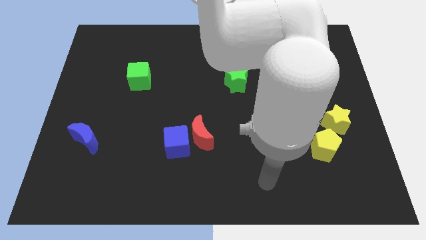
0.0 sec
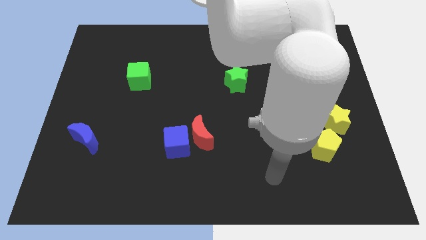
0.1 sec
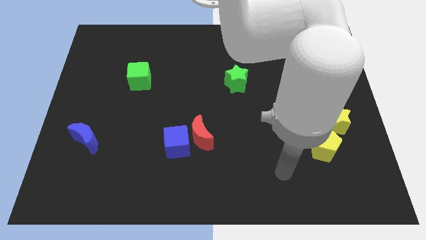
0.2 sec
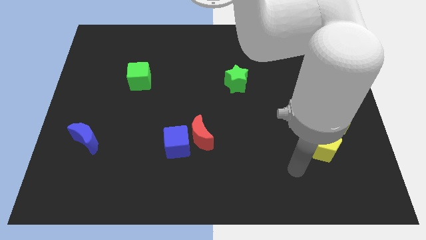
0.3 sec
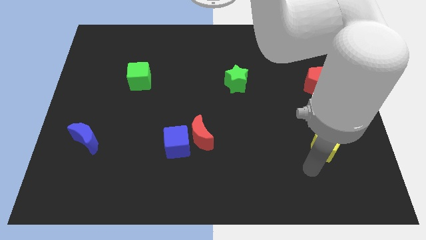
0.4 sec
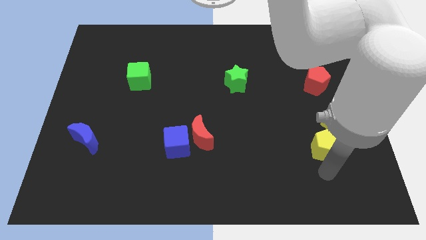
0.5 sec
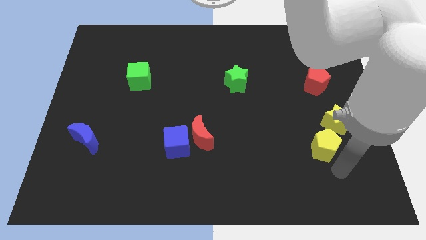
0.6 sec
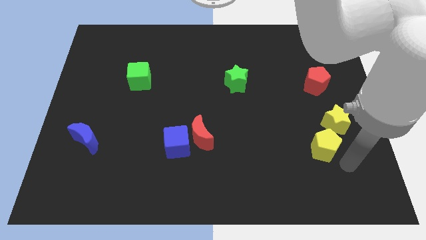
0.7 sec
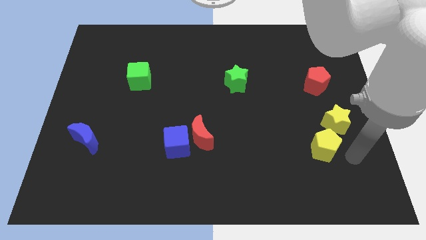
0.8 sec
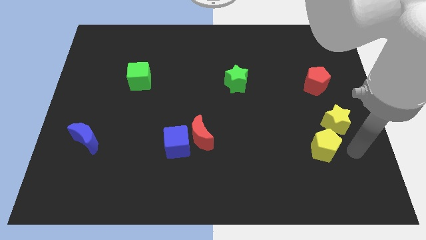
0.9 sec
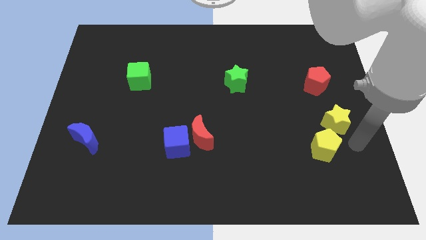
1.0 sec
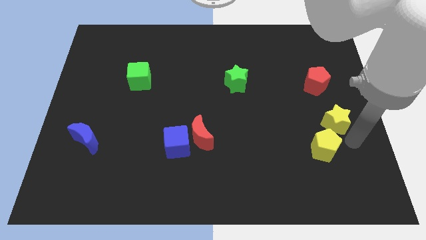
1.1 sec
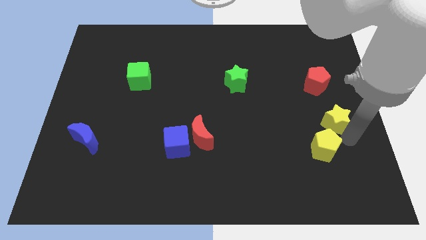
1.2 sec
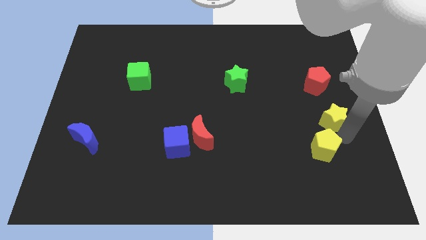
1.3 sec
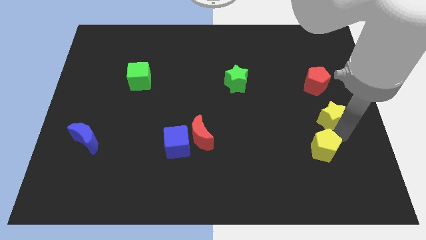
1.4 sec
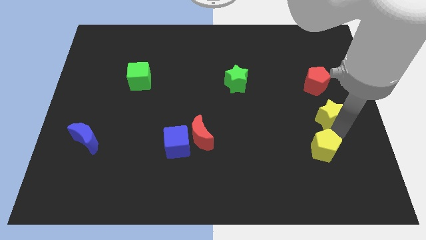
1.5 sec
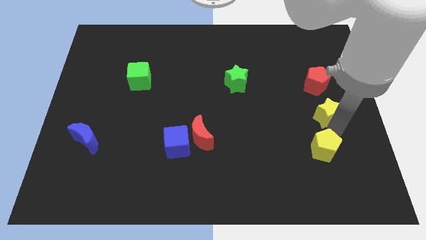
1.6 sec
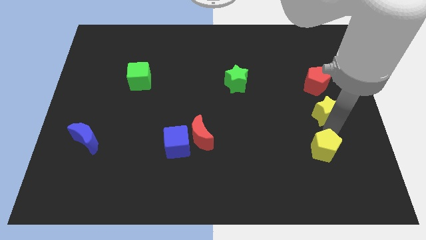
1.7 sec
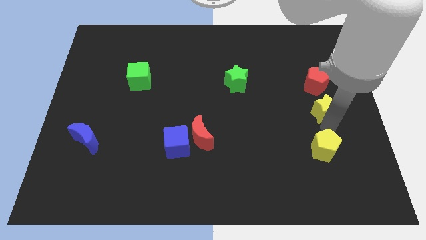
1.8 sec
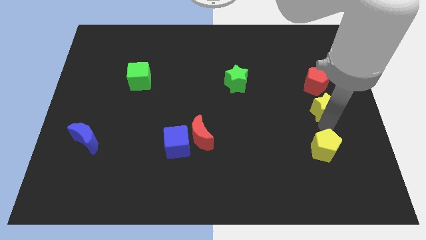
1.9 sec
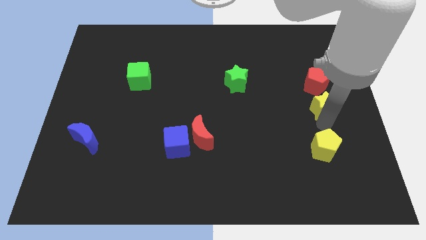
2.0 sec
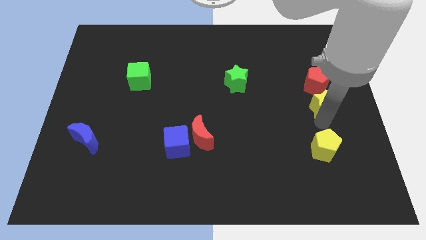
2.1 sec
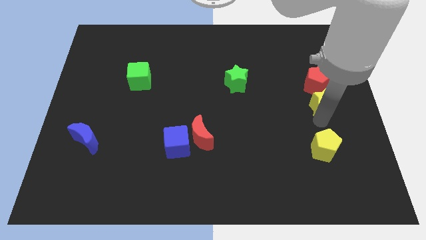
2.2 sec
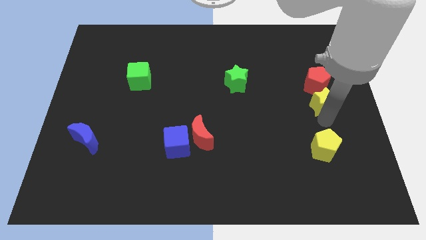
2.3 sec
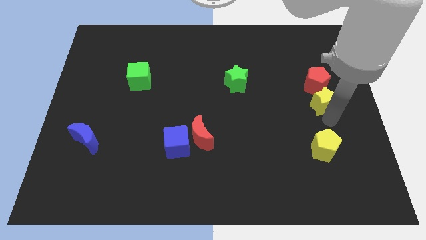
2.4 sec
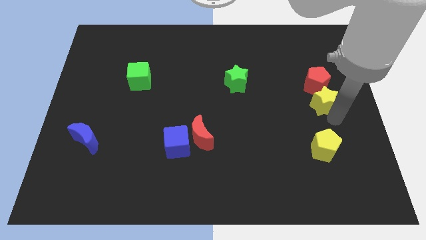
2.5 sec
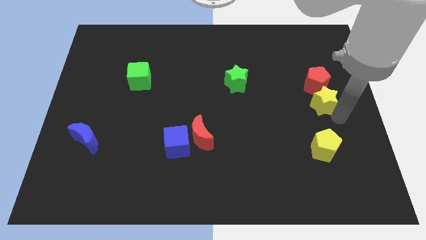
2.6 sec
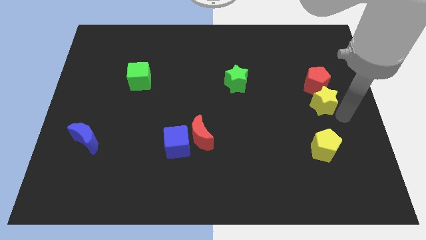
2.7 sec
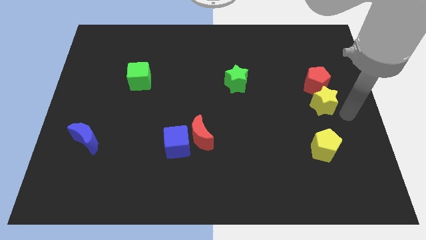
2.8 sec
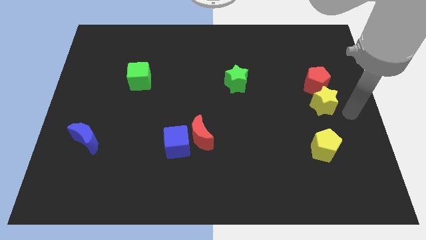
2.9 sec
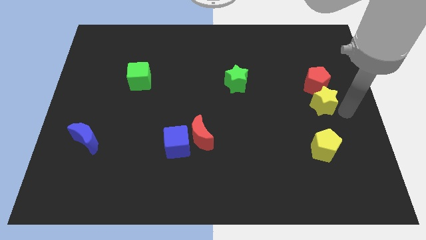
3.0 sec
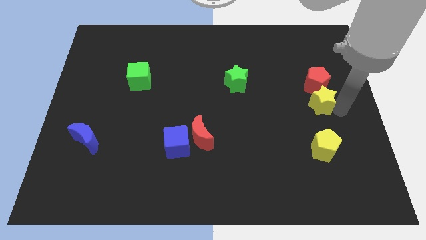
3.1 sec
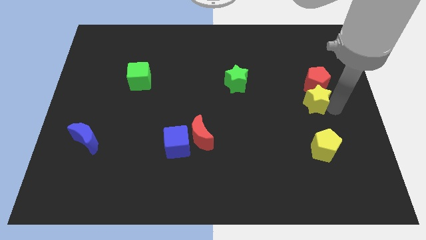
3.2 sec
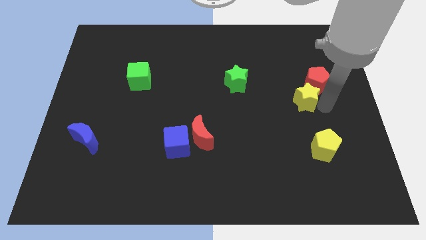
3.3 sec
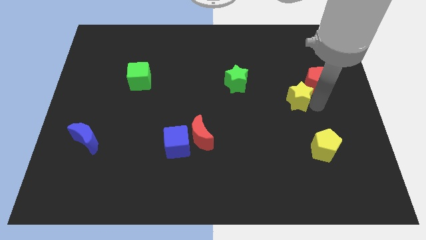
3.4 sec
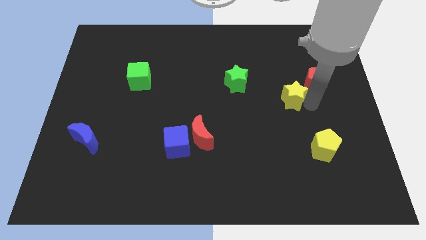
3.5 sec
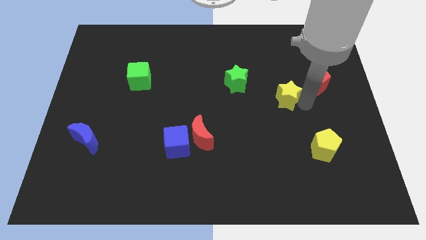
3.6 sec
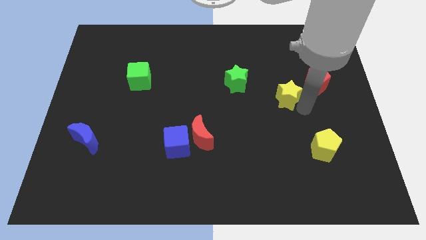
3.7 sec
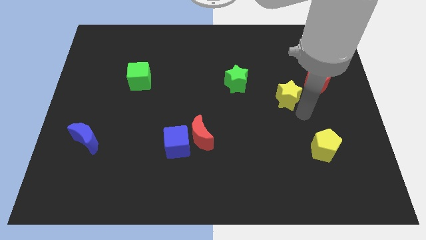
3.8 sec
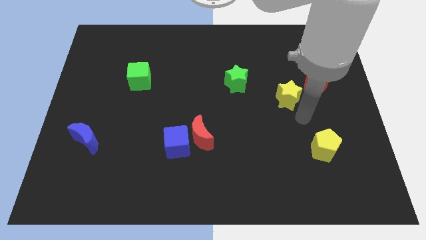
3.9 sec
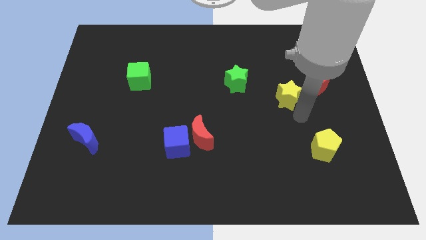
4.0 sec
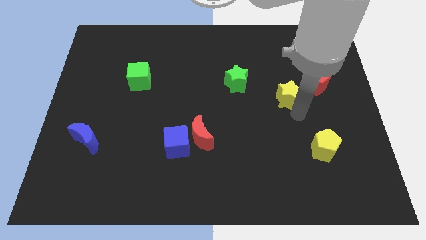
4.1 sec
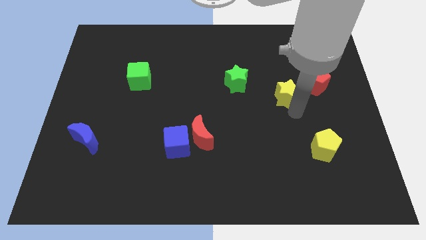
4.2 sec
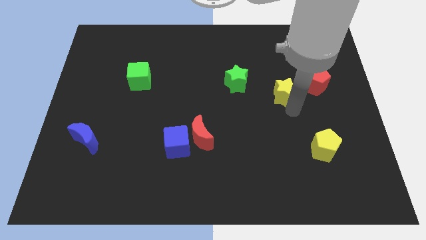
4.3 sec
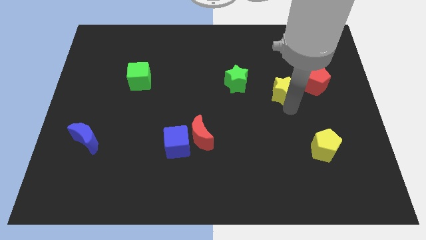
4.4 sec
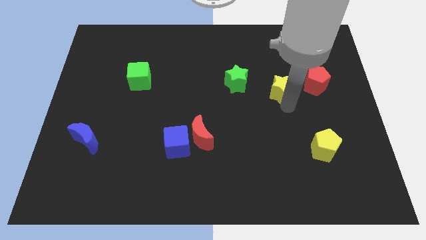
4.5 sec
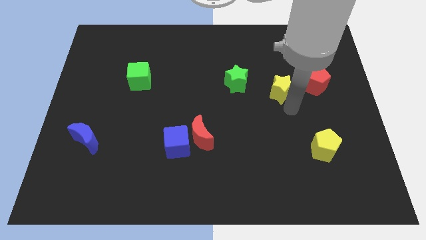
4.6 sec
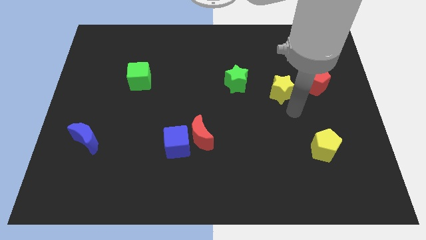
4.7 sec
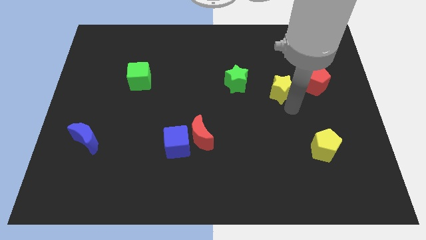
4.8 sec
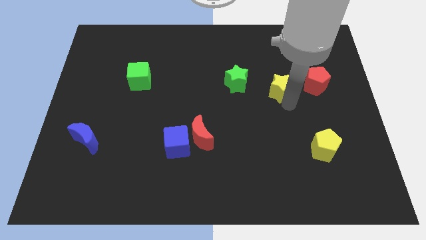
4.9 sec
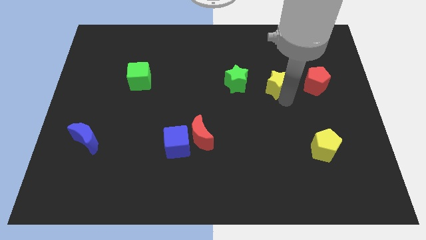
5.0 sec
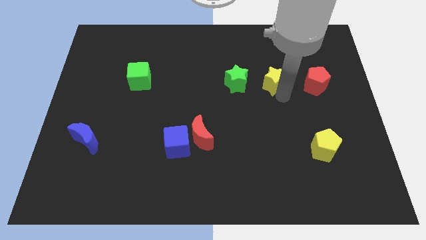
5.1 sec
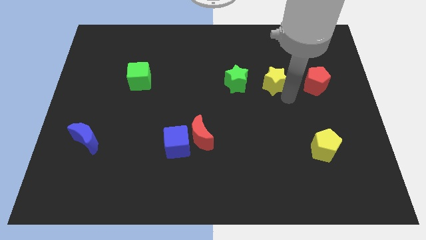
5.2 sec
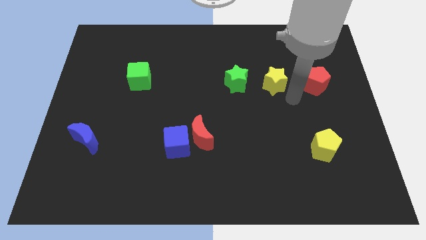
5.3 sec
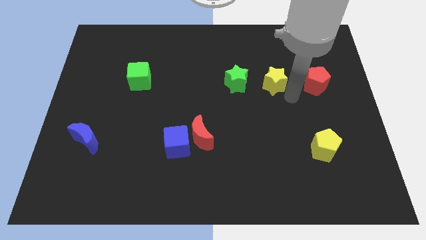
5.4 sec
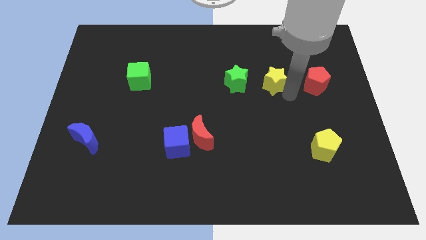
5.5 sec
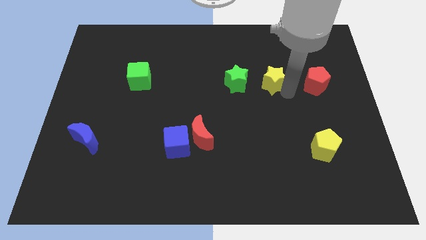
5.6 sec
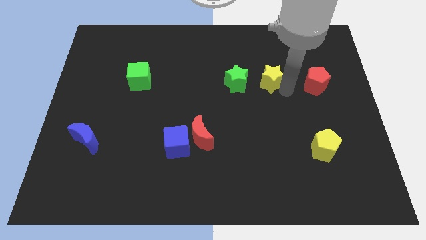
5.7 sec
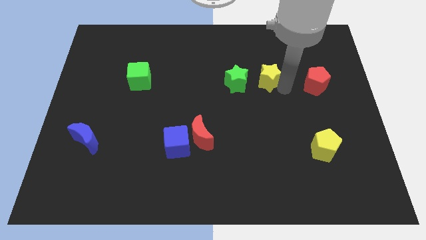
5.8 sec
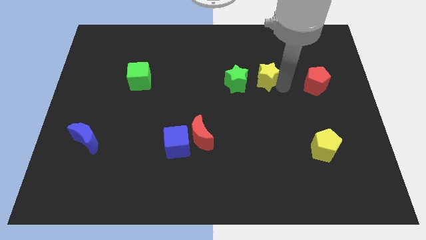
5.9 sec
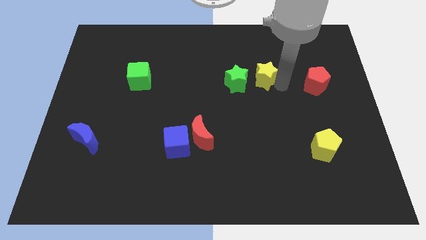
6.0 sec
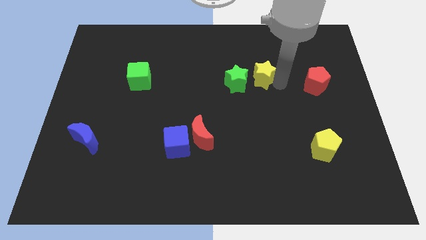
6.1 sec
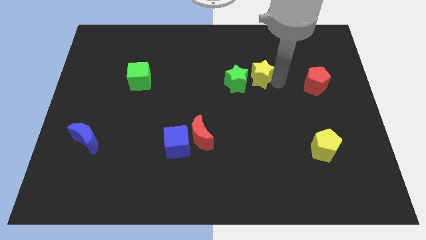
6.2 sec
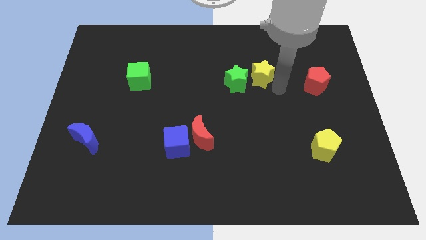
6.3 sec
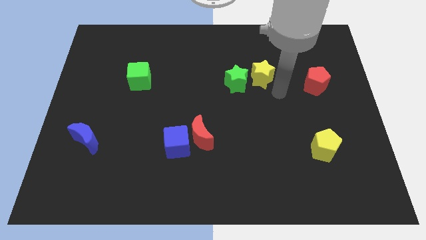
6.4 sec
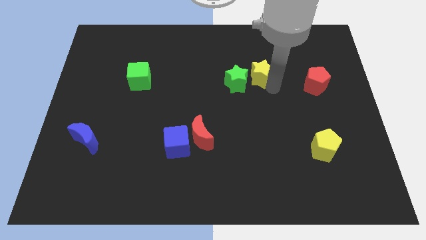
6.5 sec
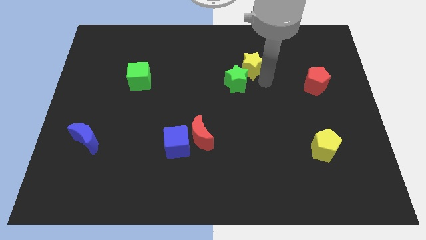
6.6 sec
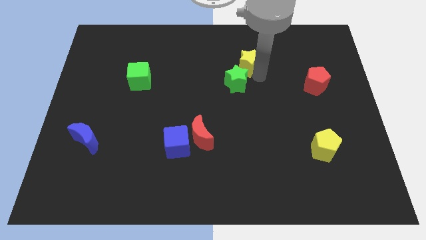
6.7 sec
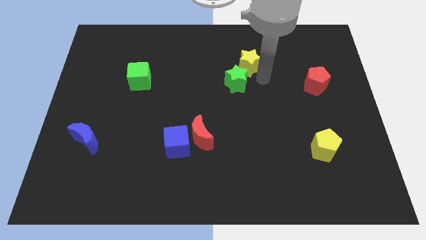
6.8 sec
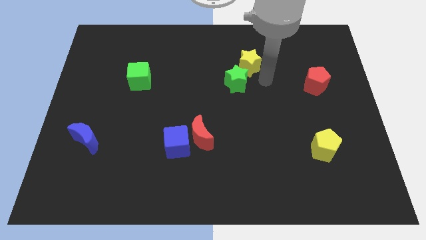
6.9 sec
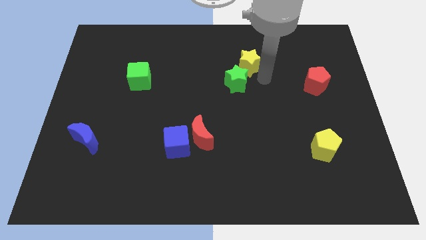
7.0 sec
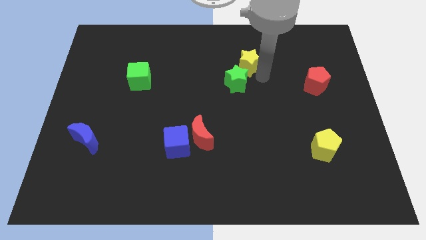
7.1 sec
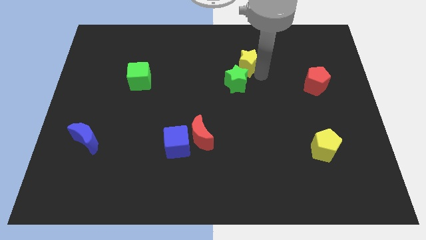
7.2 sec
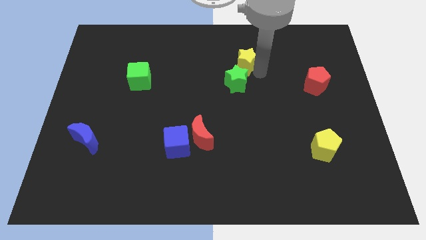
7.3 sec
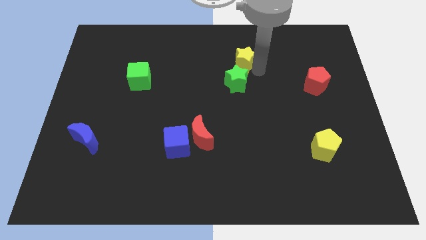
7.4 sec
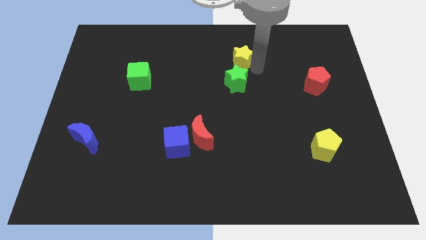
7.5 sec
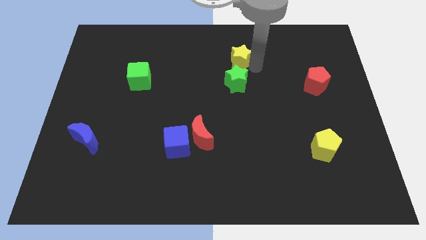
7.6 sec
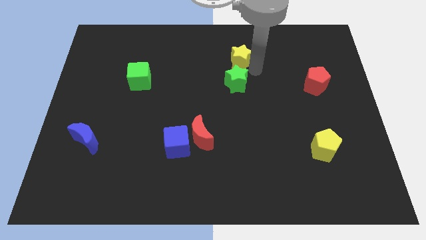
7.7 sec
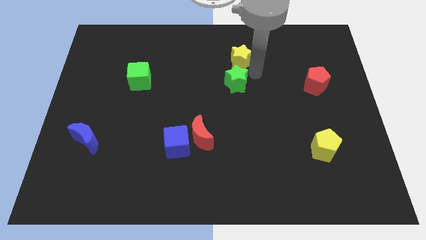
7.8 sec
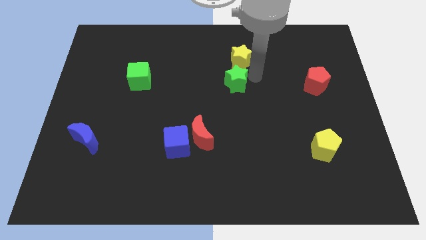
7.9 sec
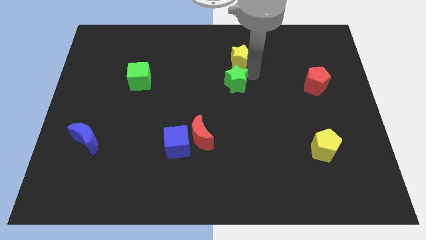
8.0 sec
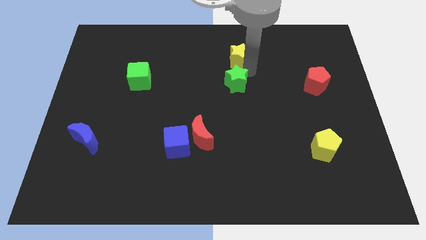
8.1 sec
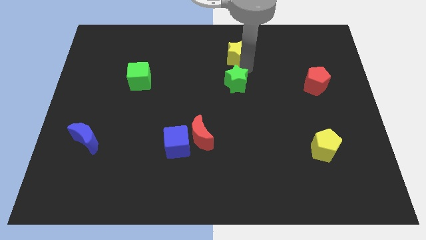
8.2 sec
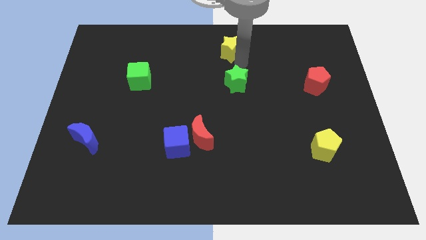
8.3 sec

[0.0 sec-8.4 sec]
put the yellow star to the towards your base
